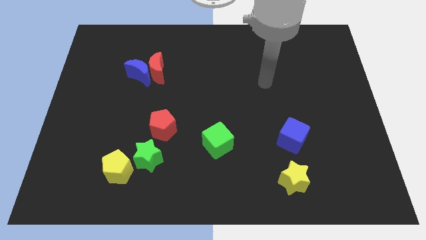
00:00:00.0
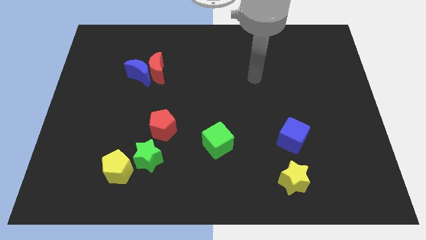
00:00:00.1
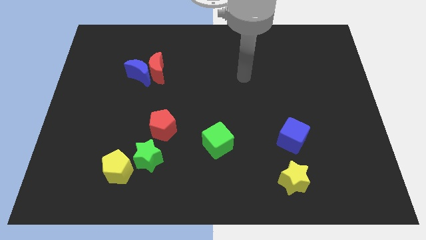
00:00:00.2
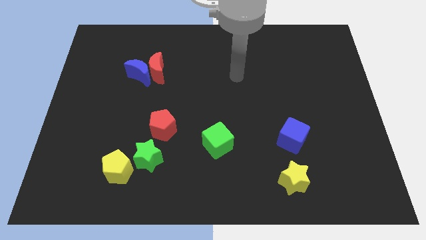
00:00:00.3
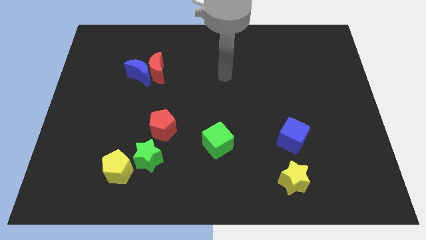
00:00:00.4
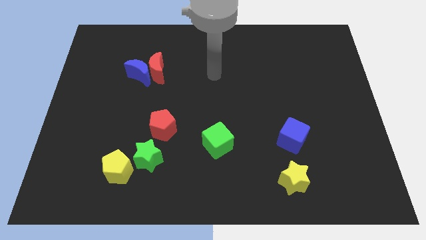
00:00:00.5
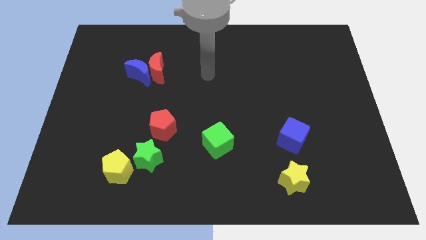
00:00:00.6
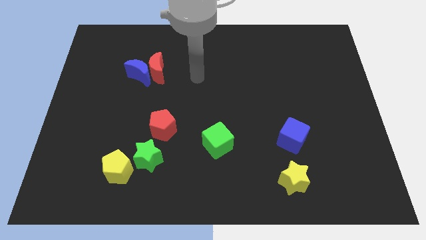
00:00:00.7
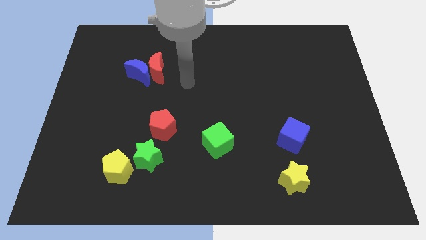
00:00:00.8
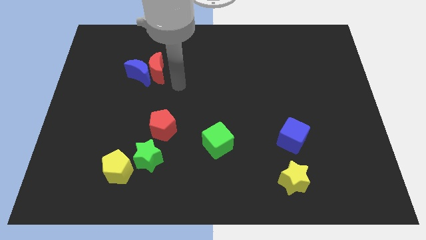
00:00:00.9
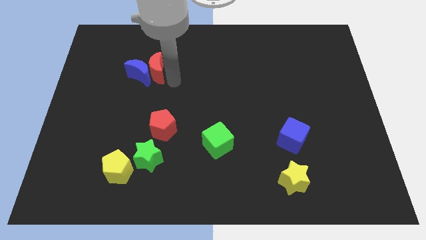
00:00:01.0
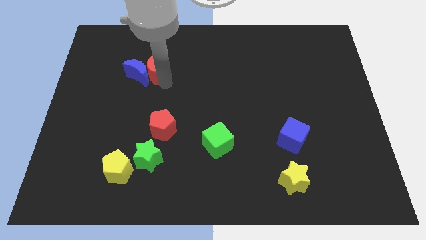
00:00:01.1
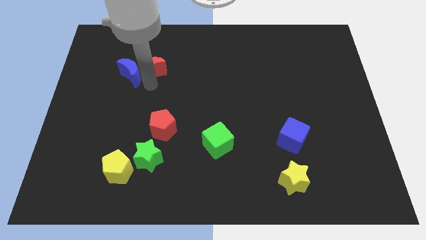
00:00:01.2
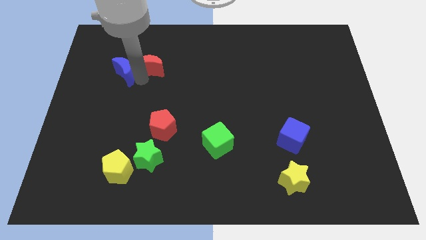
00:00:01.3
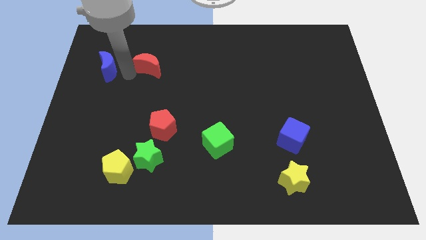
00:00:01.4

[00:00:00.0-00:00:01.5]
separate the red moon from the blue moon

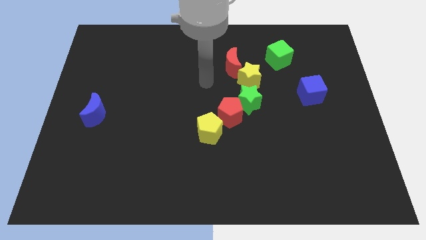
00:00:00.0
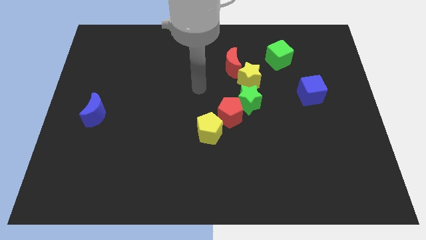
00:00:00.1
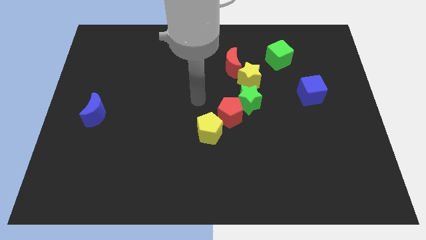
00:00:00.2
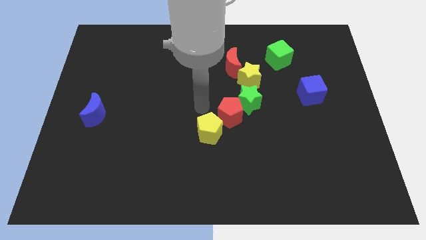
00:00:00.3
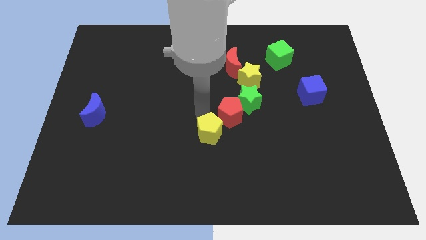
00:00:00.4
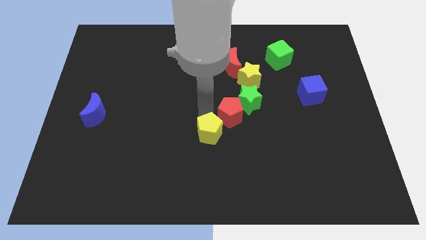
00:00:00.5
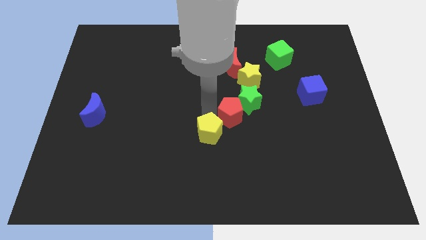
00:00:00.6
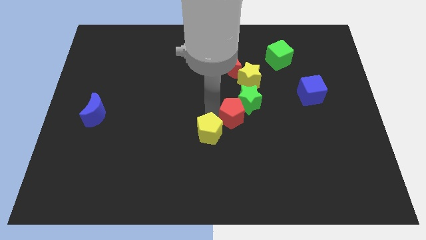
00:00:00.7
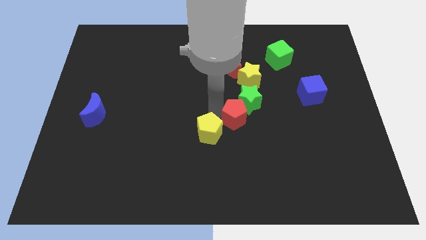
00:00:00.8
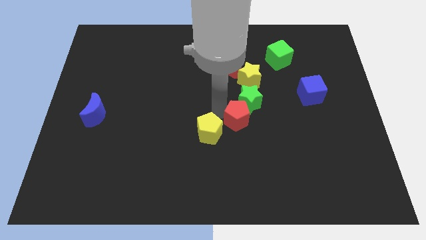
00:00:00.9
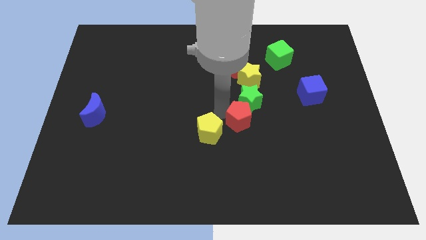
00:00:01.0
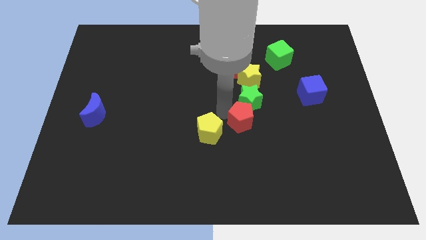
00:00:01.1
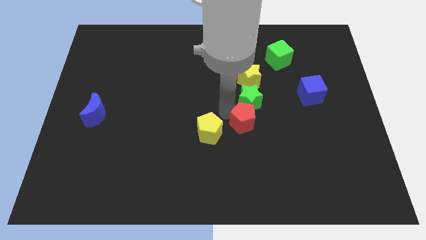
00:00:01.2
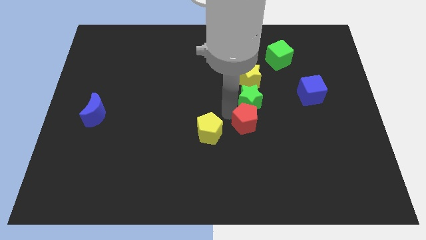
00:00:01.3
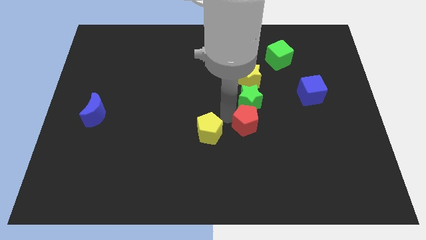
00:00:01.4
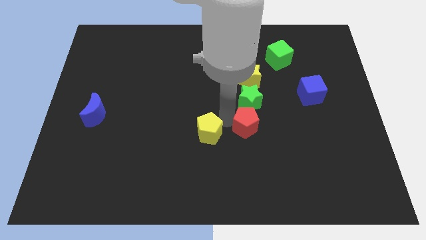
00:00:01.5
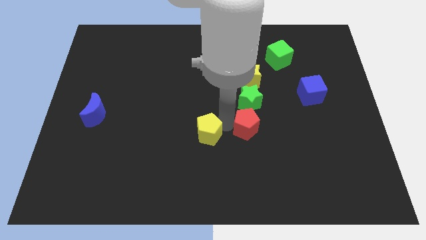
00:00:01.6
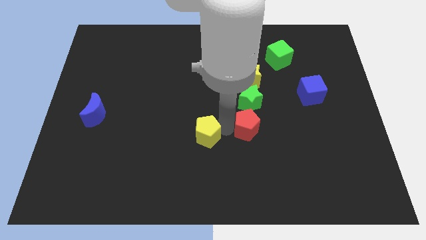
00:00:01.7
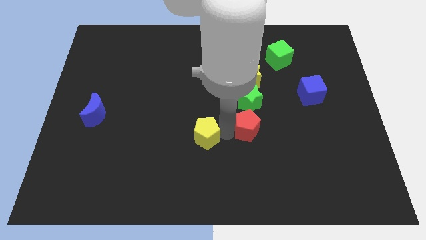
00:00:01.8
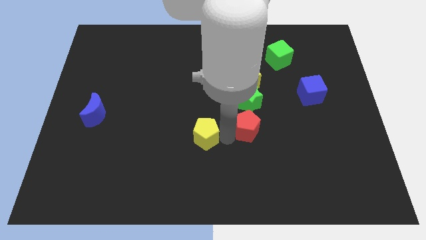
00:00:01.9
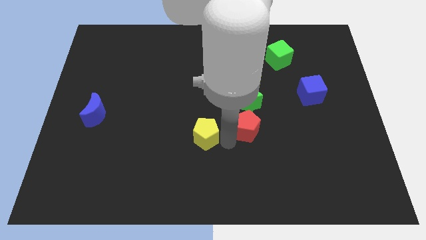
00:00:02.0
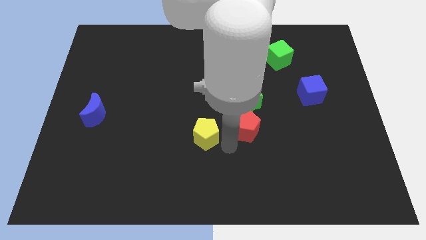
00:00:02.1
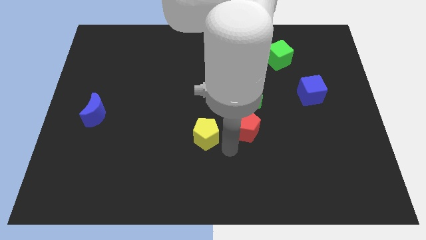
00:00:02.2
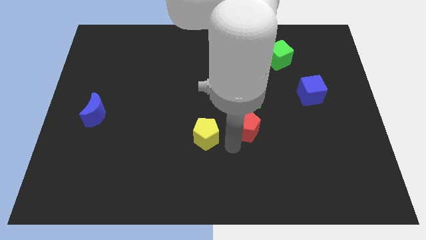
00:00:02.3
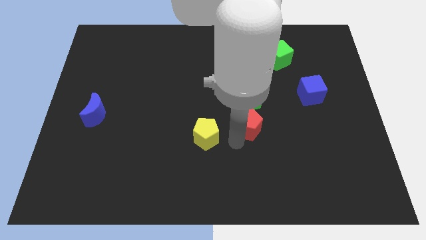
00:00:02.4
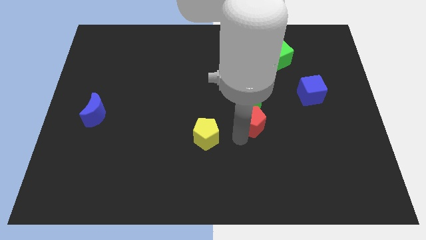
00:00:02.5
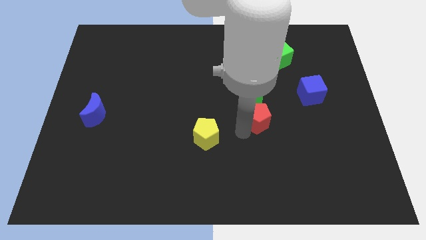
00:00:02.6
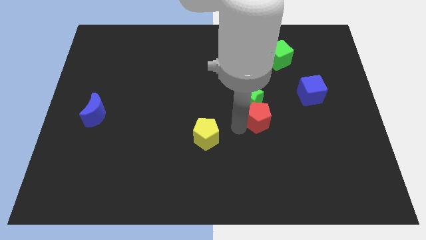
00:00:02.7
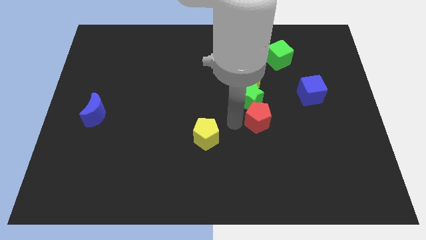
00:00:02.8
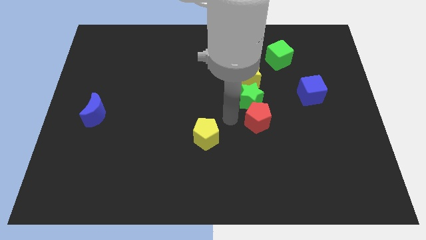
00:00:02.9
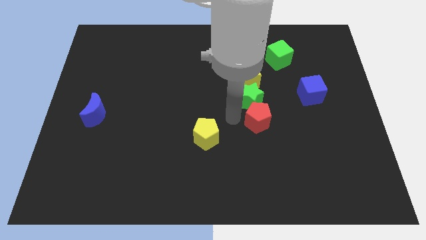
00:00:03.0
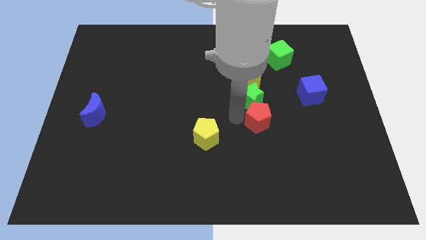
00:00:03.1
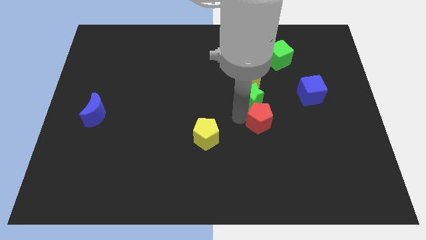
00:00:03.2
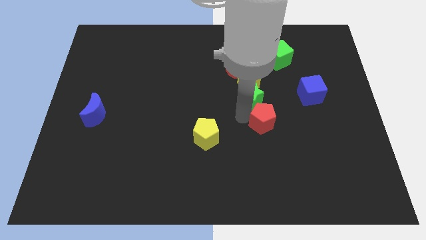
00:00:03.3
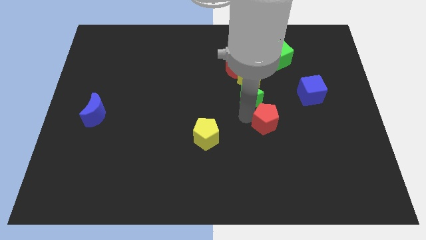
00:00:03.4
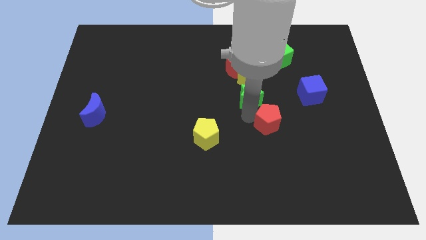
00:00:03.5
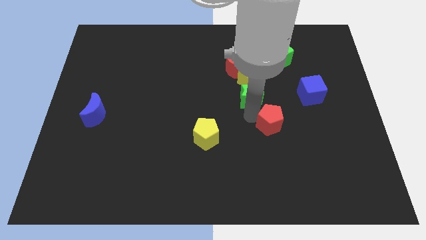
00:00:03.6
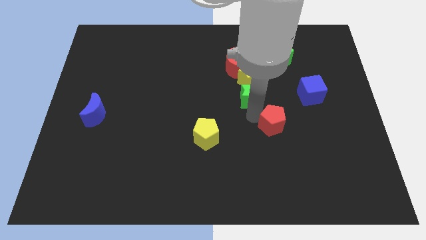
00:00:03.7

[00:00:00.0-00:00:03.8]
move the red pentagon away from the green star and yellow pentagon

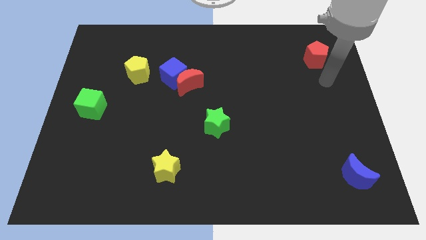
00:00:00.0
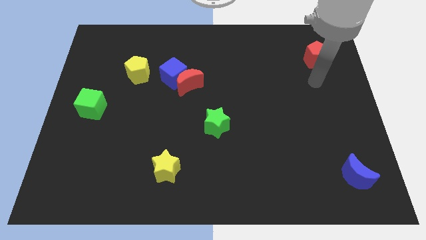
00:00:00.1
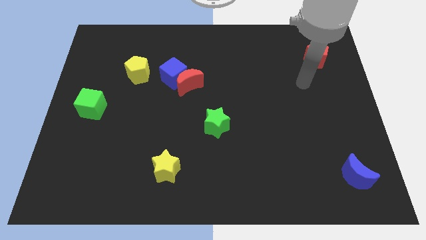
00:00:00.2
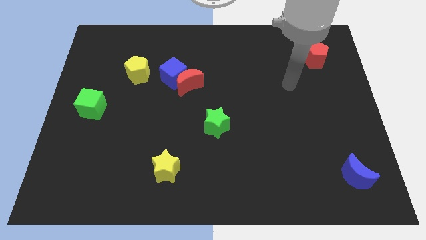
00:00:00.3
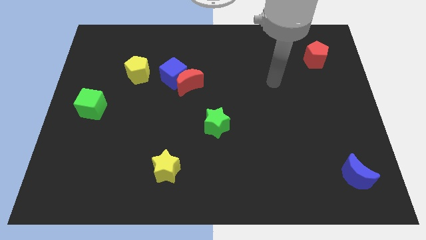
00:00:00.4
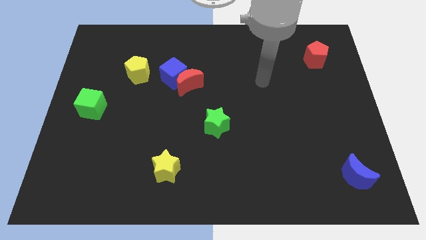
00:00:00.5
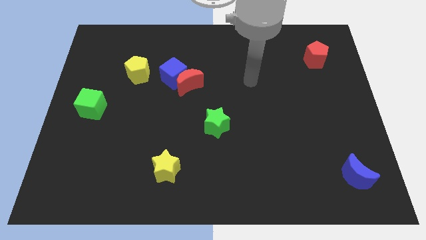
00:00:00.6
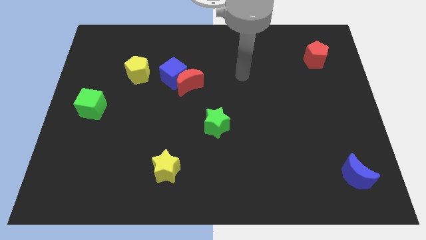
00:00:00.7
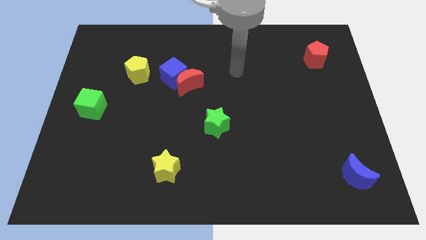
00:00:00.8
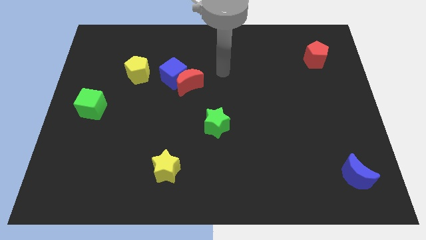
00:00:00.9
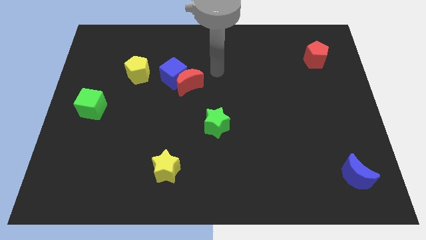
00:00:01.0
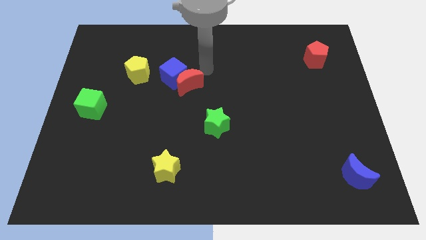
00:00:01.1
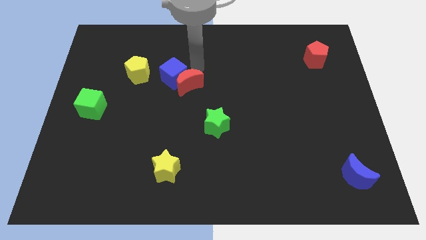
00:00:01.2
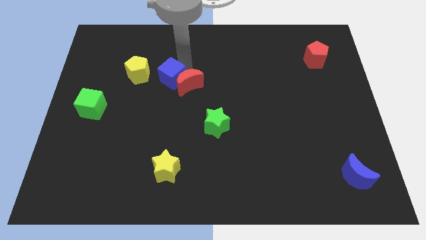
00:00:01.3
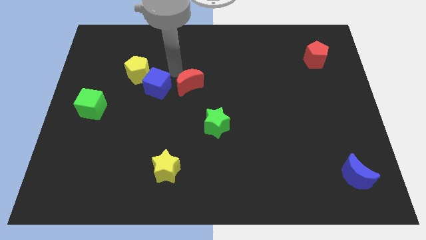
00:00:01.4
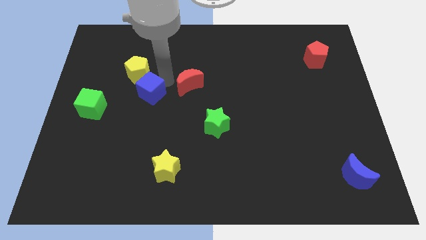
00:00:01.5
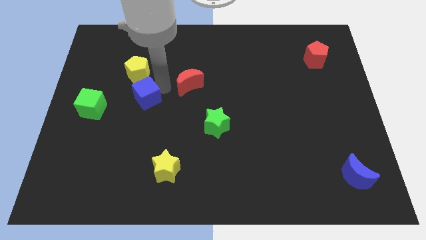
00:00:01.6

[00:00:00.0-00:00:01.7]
move the red moon away from the blue cube

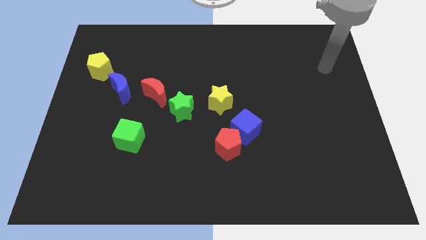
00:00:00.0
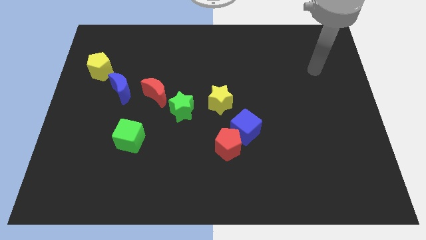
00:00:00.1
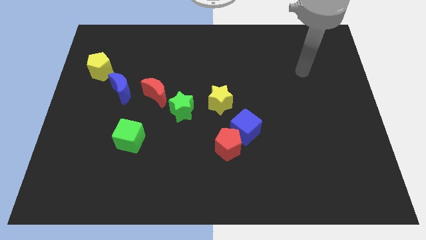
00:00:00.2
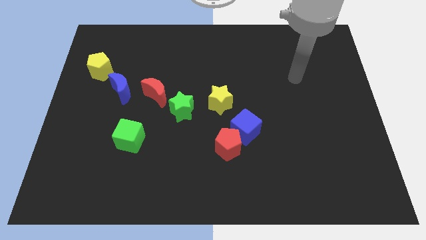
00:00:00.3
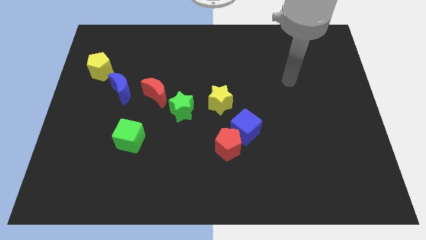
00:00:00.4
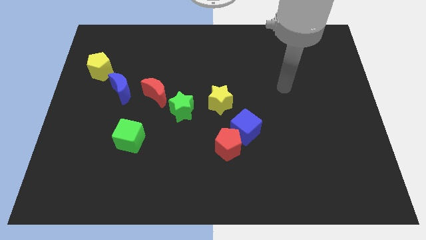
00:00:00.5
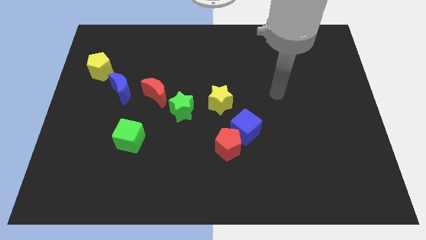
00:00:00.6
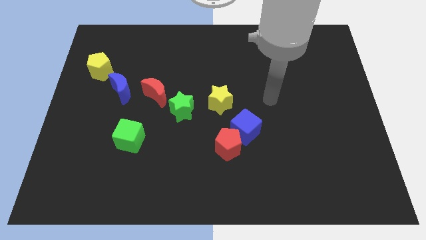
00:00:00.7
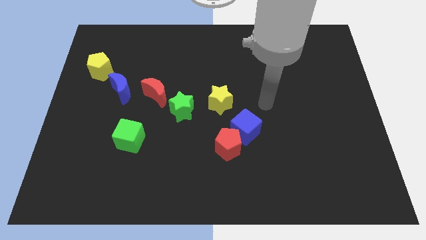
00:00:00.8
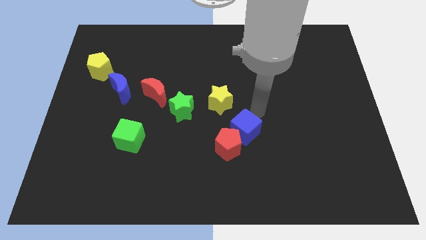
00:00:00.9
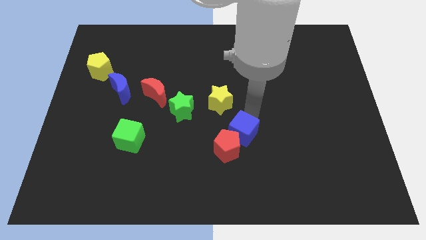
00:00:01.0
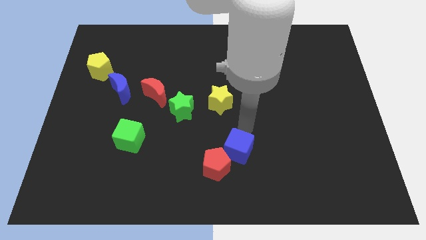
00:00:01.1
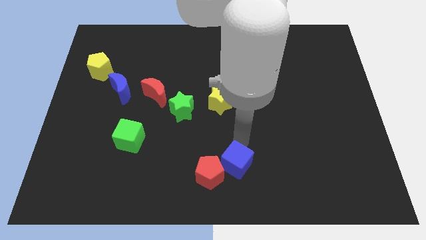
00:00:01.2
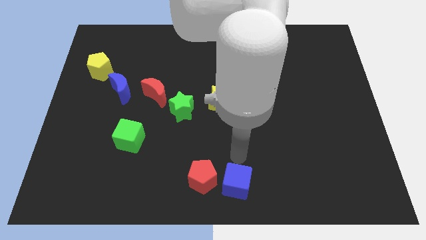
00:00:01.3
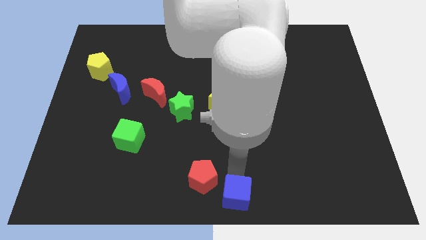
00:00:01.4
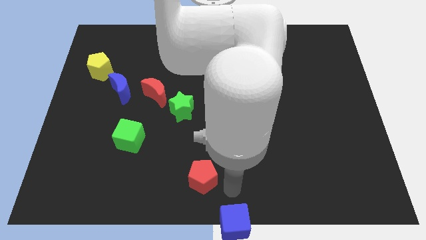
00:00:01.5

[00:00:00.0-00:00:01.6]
pull the red pentagon apart from the blue cube

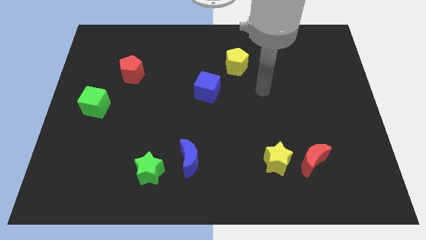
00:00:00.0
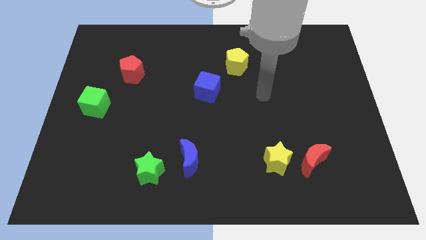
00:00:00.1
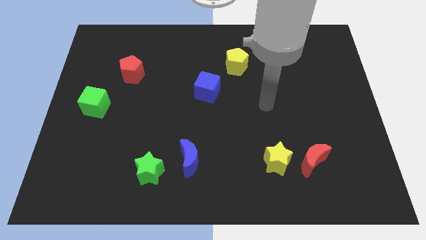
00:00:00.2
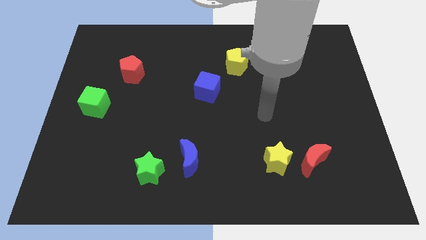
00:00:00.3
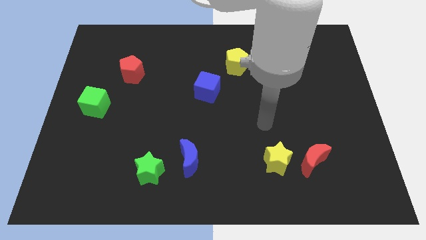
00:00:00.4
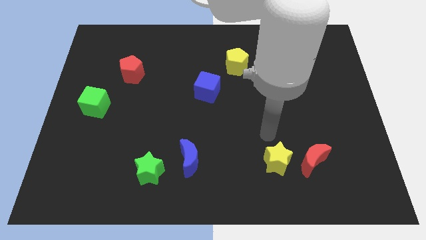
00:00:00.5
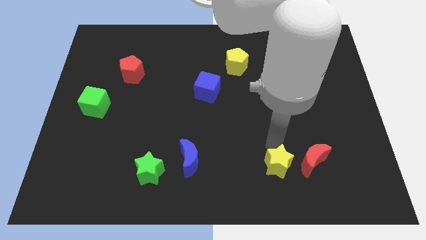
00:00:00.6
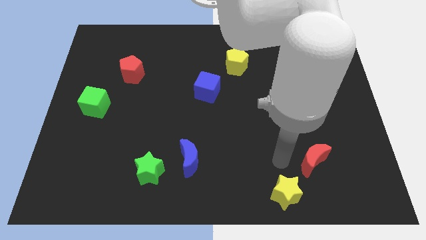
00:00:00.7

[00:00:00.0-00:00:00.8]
separate the red moon from the yellow star
